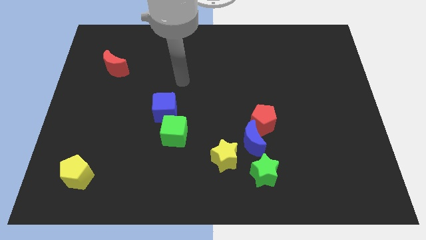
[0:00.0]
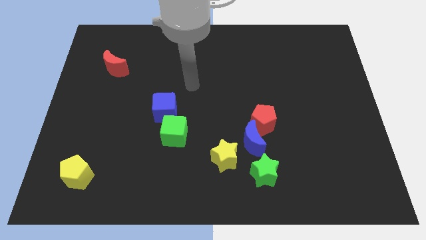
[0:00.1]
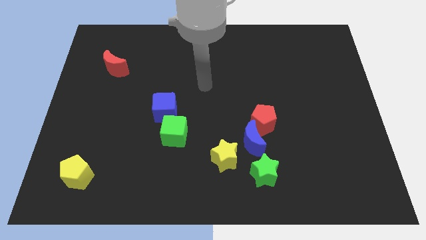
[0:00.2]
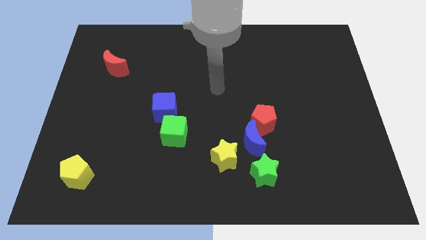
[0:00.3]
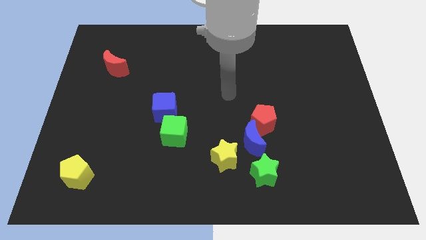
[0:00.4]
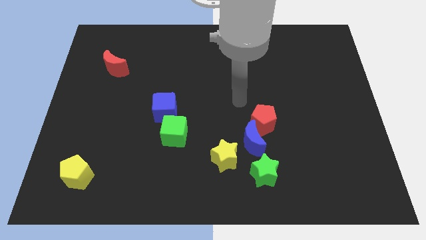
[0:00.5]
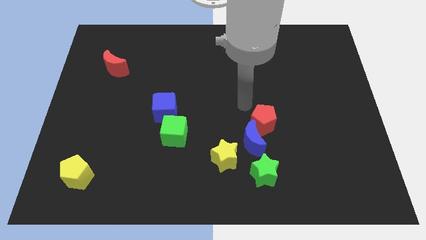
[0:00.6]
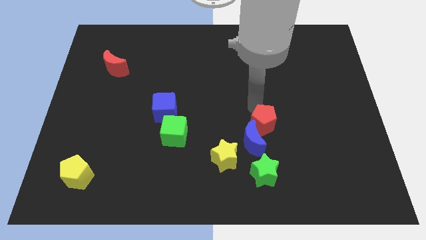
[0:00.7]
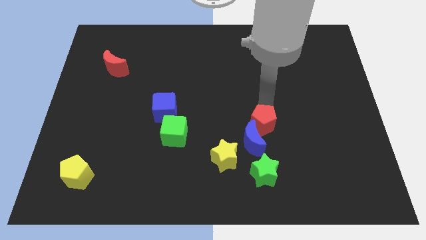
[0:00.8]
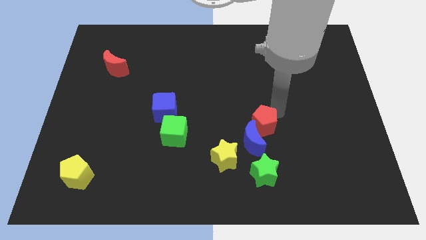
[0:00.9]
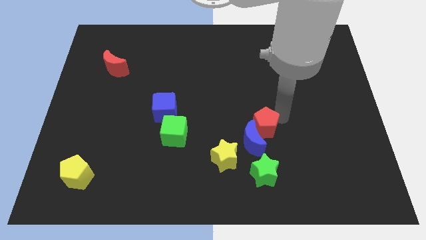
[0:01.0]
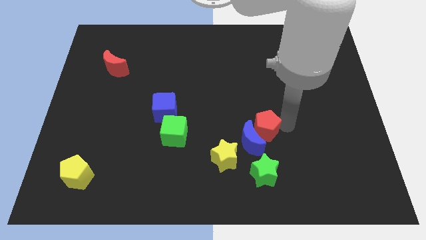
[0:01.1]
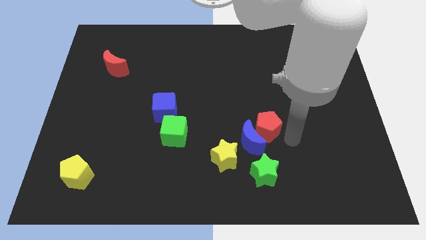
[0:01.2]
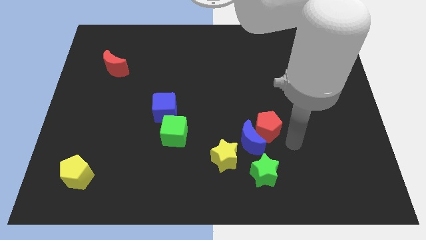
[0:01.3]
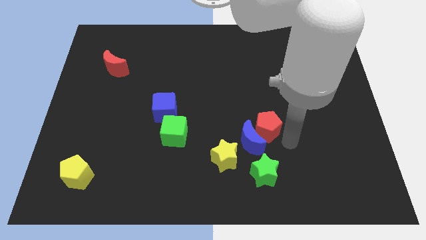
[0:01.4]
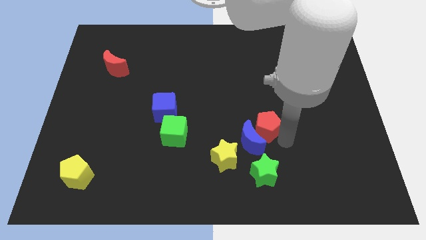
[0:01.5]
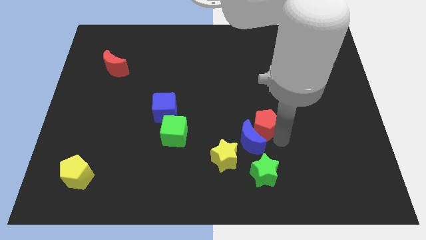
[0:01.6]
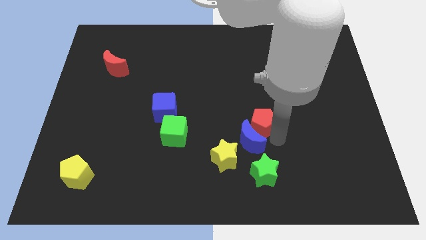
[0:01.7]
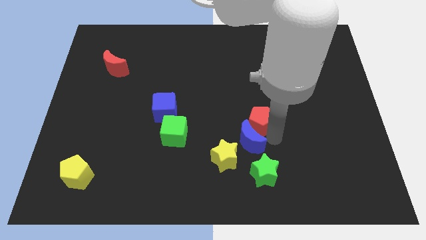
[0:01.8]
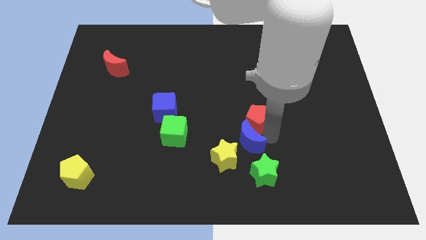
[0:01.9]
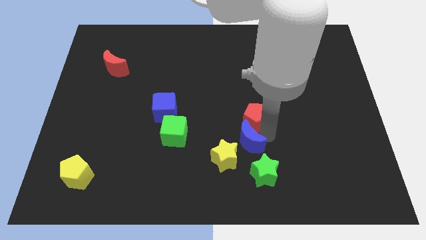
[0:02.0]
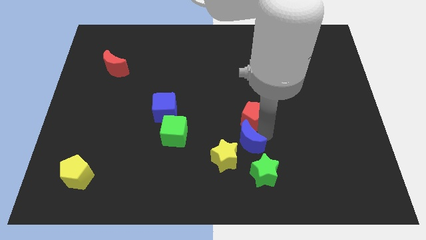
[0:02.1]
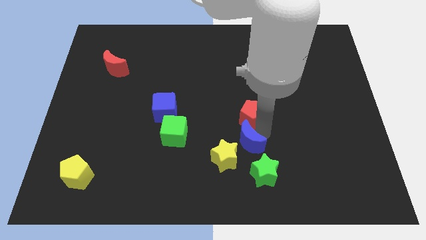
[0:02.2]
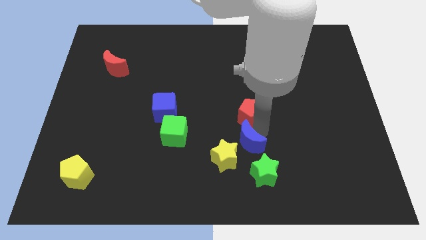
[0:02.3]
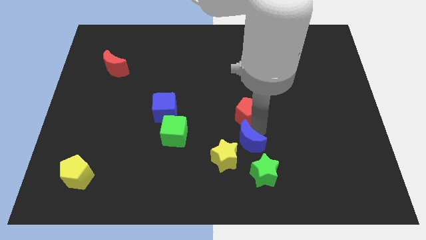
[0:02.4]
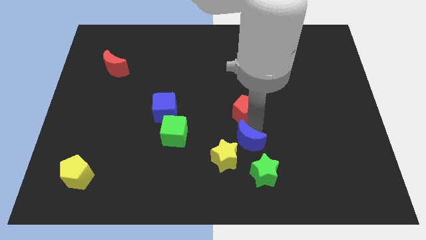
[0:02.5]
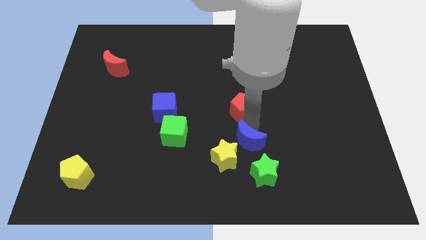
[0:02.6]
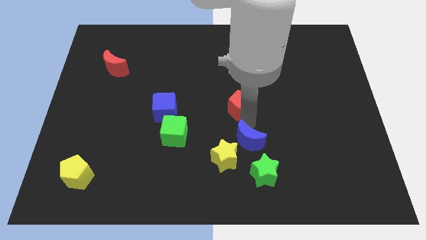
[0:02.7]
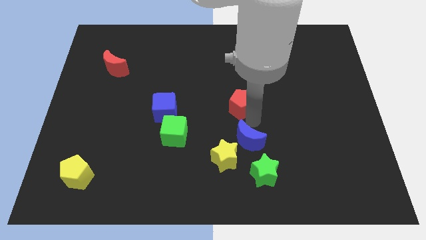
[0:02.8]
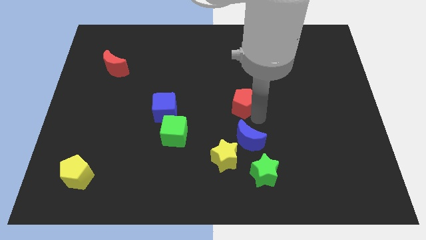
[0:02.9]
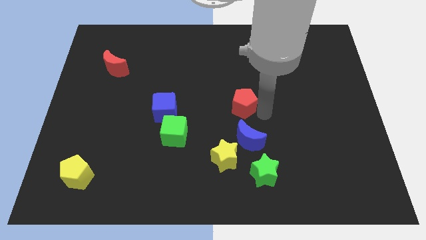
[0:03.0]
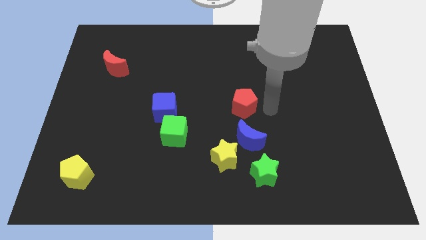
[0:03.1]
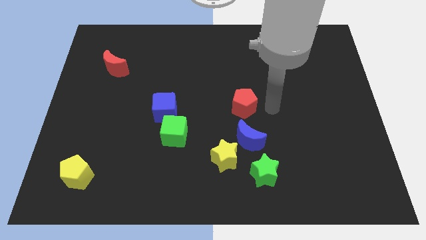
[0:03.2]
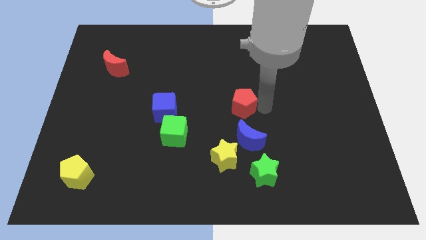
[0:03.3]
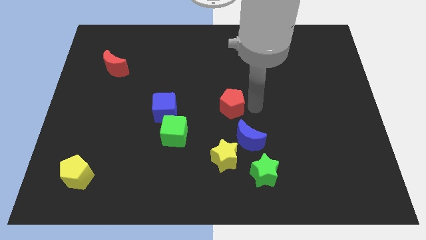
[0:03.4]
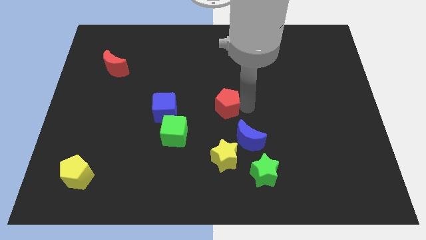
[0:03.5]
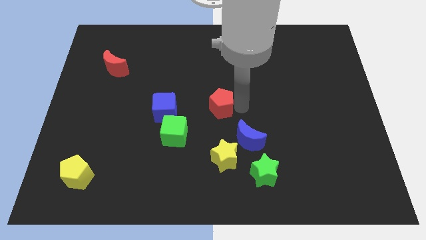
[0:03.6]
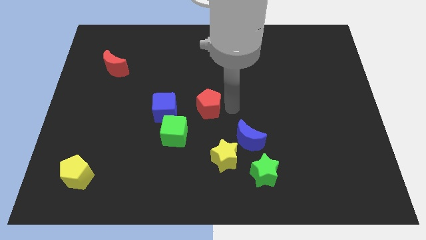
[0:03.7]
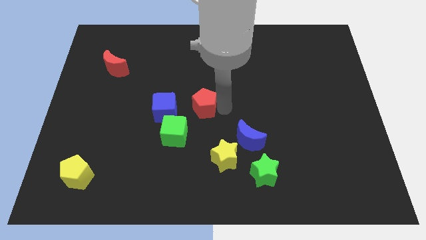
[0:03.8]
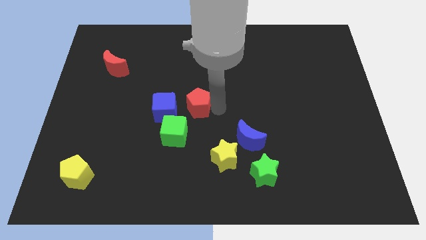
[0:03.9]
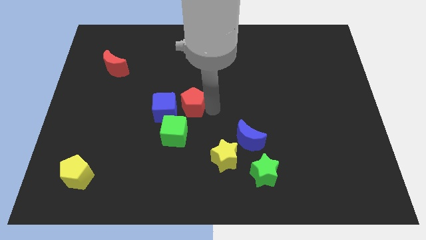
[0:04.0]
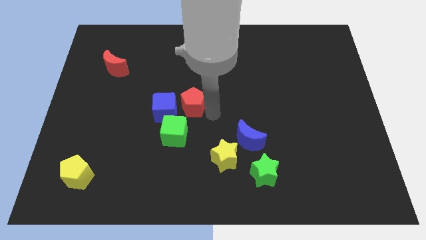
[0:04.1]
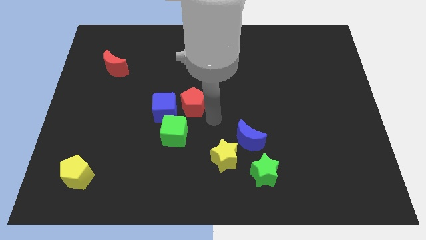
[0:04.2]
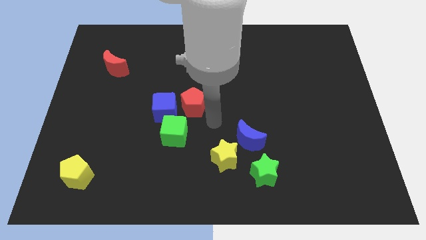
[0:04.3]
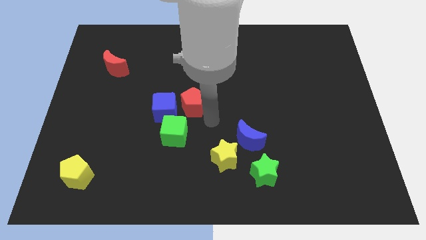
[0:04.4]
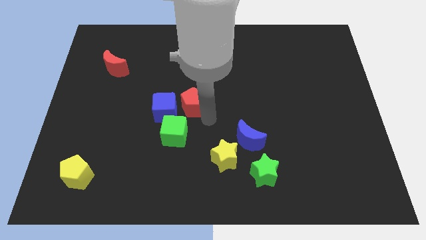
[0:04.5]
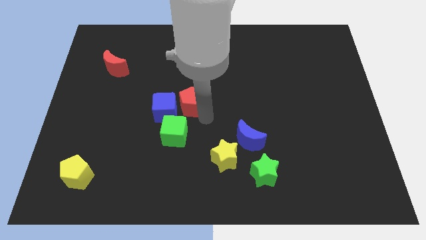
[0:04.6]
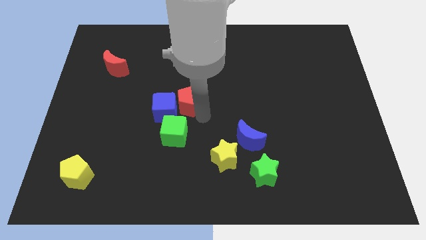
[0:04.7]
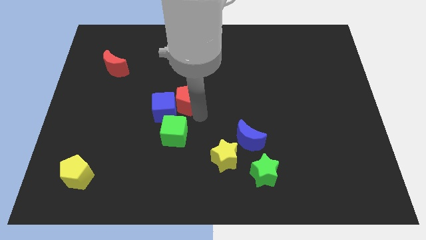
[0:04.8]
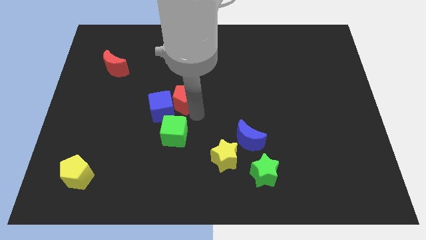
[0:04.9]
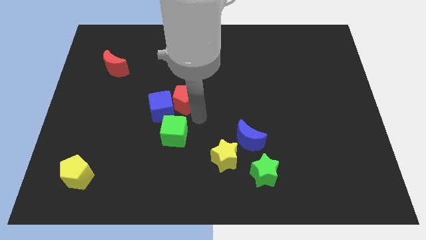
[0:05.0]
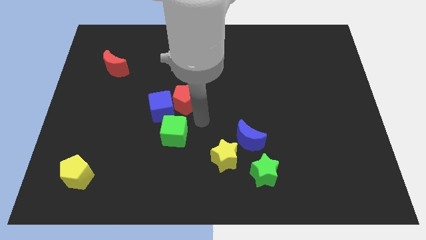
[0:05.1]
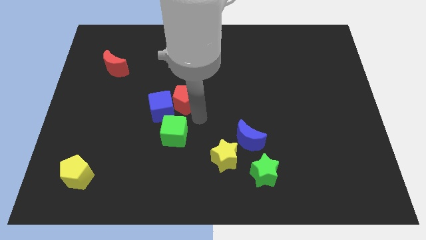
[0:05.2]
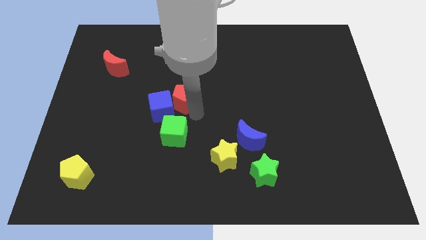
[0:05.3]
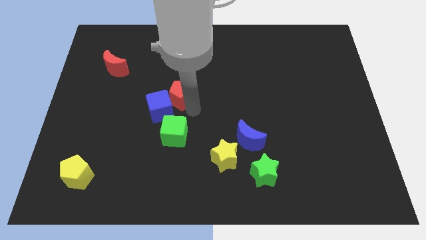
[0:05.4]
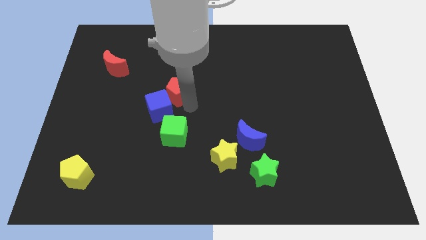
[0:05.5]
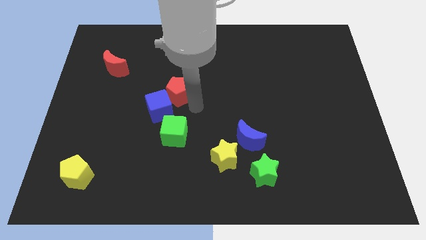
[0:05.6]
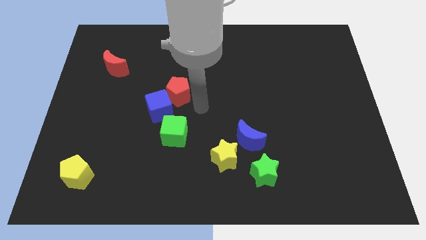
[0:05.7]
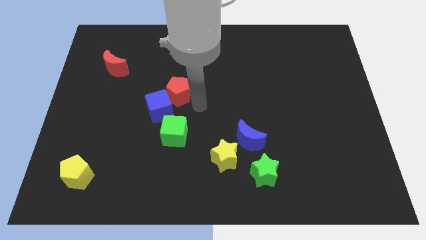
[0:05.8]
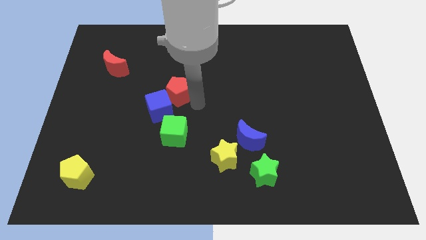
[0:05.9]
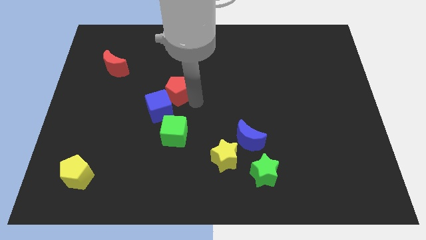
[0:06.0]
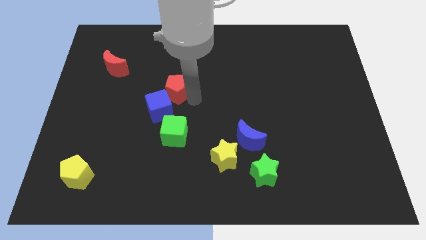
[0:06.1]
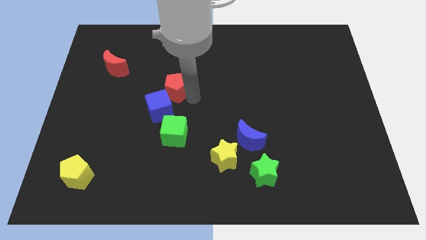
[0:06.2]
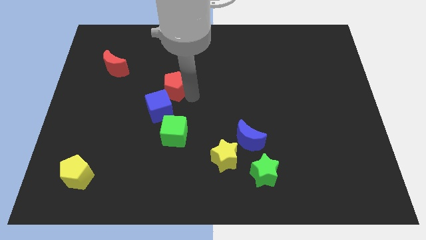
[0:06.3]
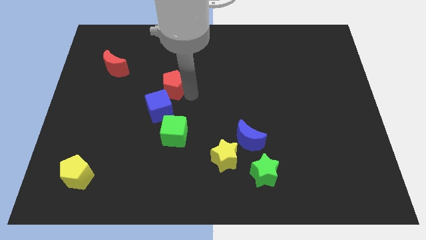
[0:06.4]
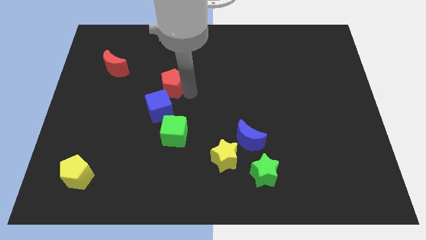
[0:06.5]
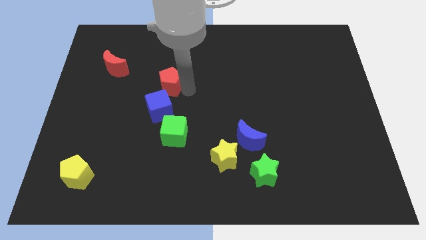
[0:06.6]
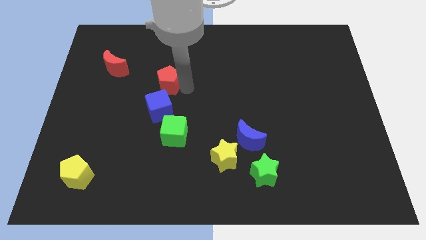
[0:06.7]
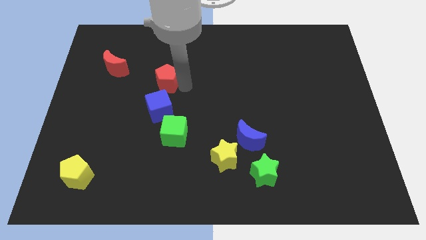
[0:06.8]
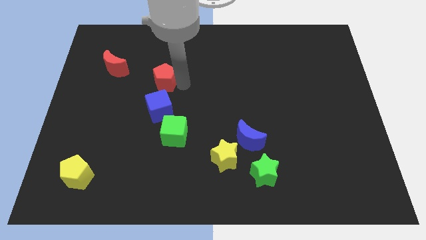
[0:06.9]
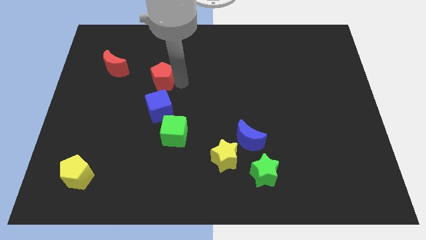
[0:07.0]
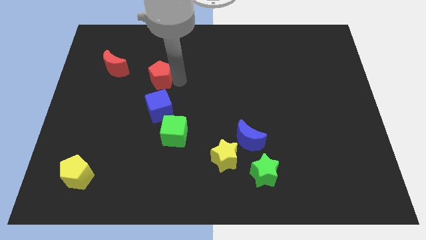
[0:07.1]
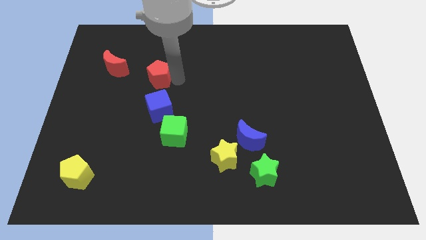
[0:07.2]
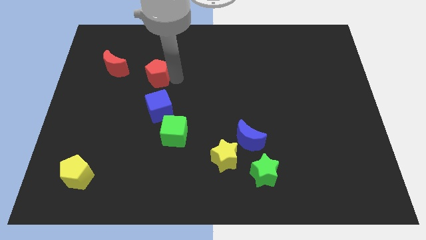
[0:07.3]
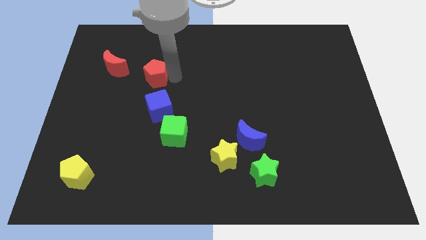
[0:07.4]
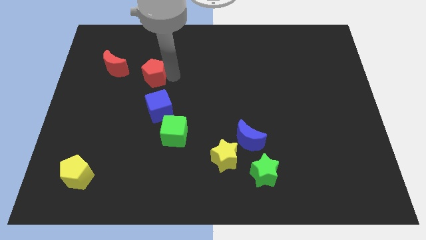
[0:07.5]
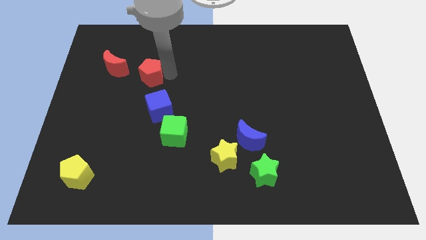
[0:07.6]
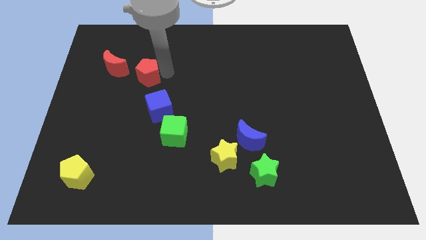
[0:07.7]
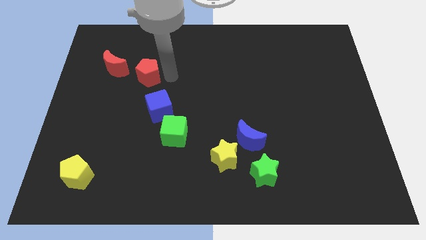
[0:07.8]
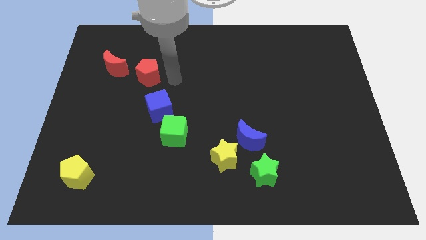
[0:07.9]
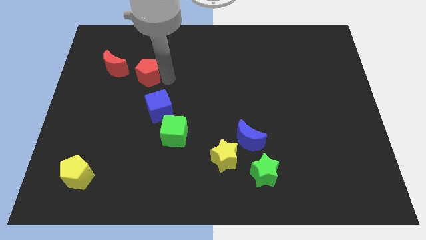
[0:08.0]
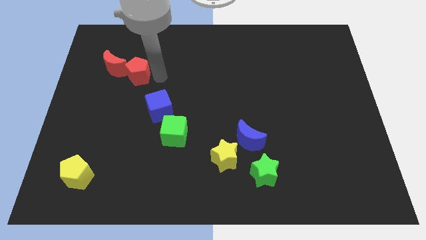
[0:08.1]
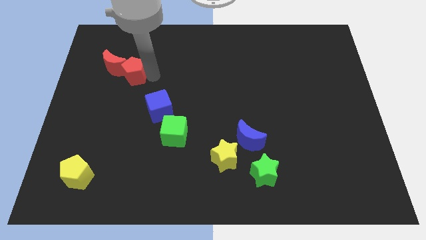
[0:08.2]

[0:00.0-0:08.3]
push the red pentagon towards the red moon
